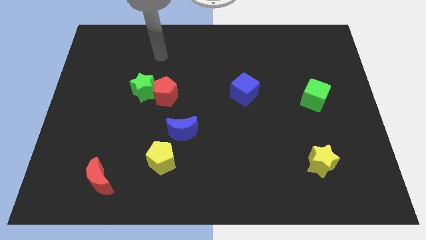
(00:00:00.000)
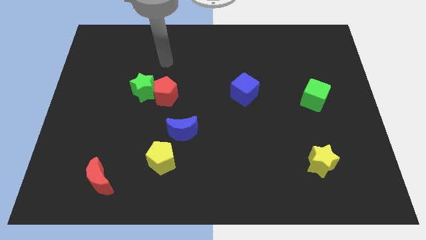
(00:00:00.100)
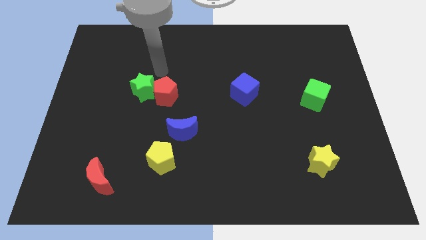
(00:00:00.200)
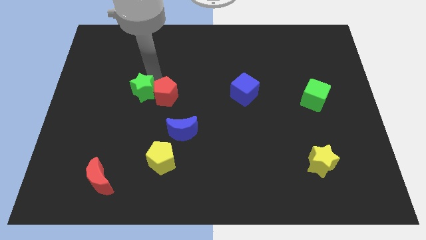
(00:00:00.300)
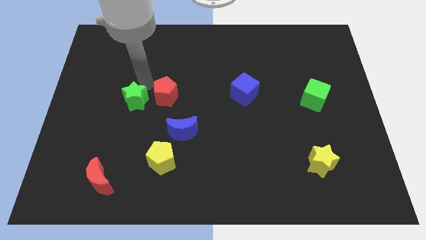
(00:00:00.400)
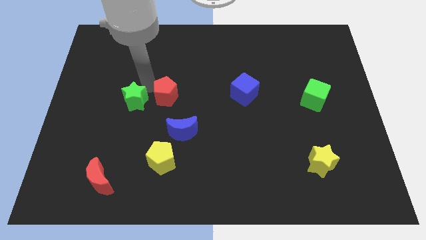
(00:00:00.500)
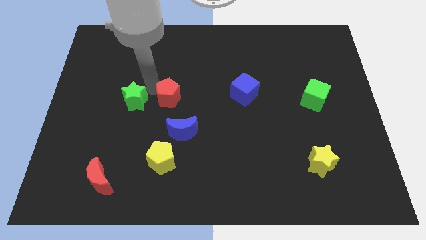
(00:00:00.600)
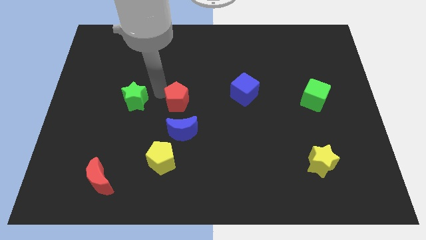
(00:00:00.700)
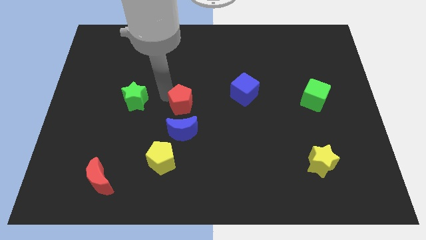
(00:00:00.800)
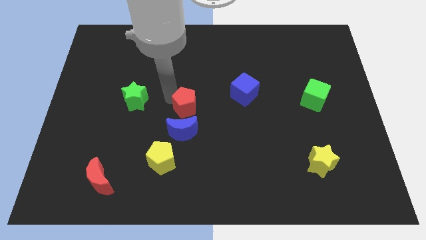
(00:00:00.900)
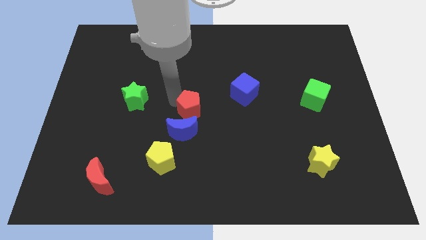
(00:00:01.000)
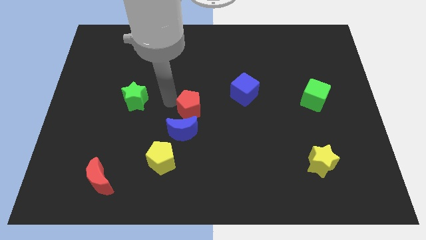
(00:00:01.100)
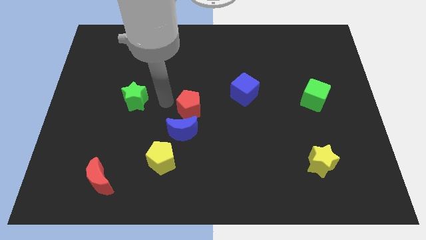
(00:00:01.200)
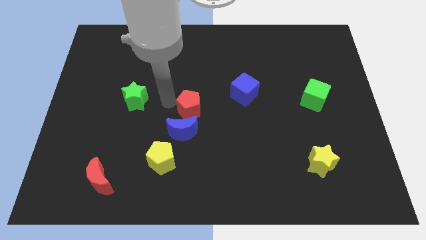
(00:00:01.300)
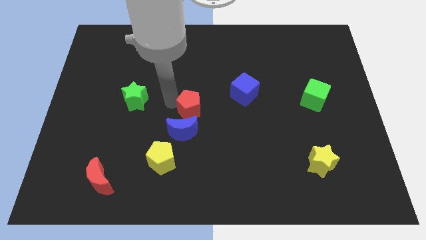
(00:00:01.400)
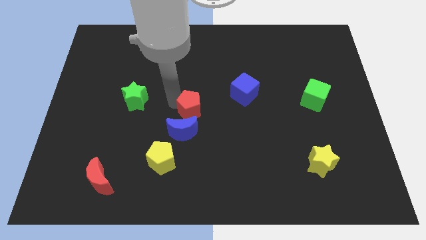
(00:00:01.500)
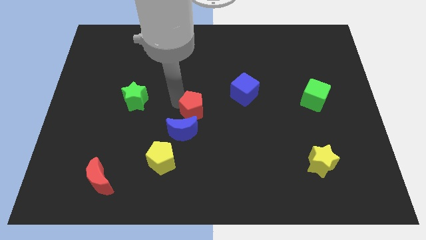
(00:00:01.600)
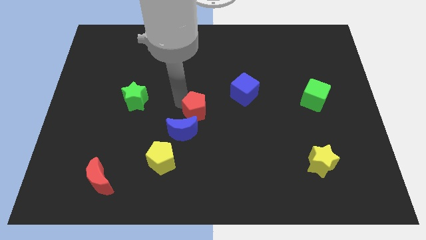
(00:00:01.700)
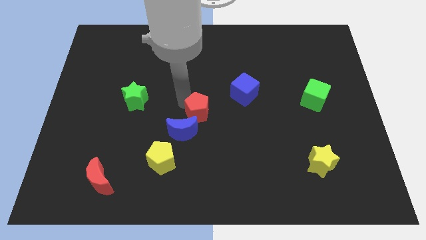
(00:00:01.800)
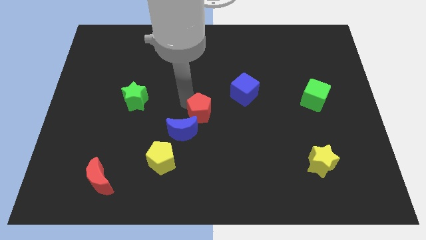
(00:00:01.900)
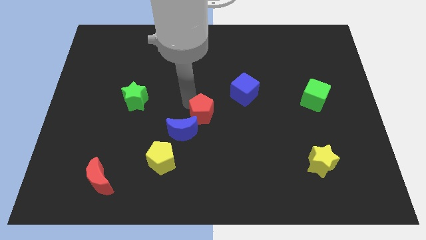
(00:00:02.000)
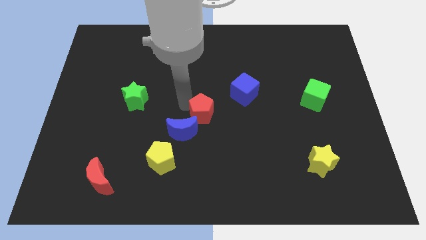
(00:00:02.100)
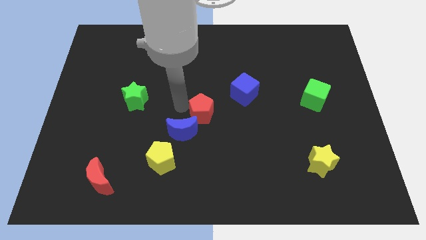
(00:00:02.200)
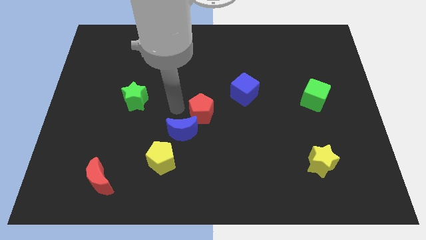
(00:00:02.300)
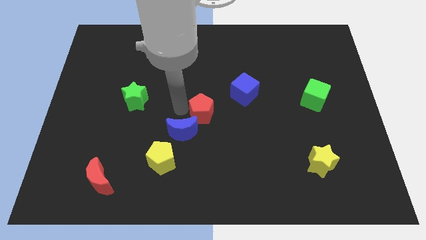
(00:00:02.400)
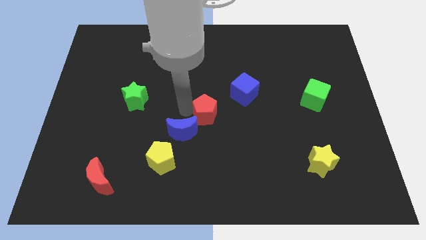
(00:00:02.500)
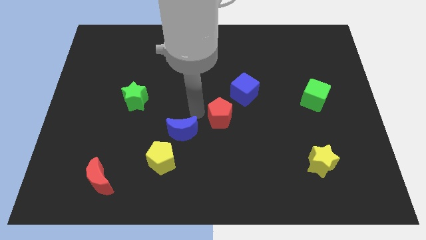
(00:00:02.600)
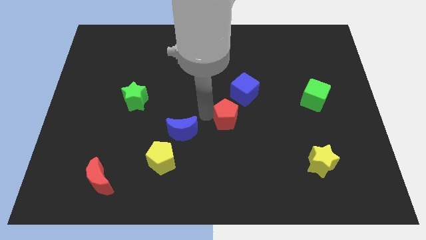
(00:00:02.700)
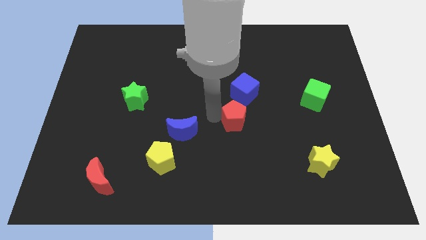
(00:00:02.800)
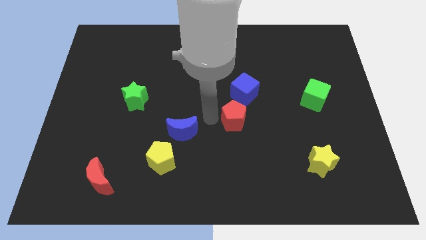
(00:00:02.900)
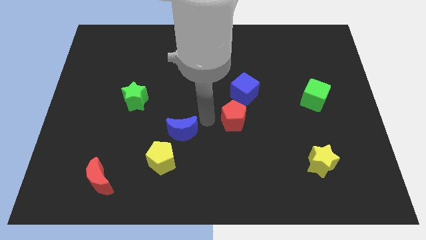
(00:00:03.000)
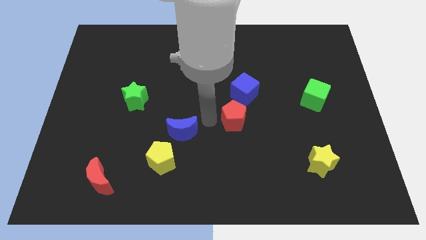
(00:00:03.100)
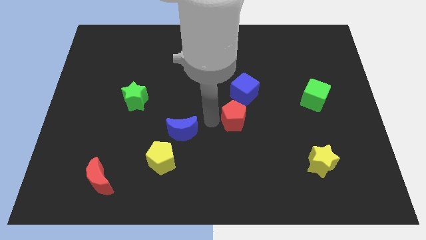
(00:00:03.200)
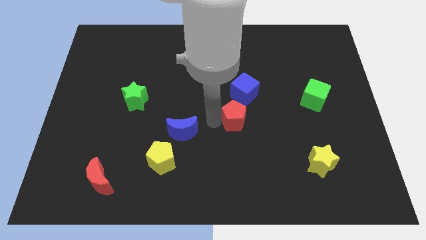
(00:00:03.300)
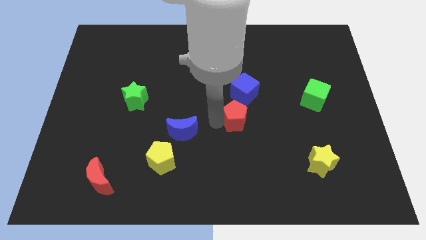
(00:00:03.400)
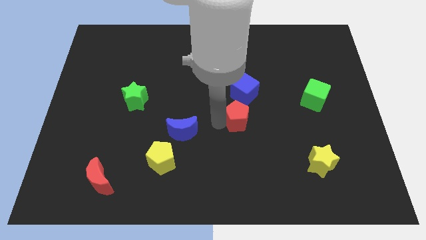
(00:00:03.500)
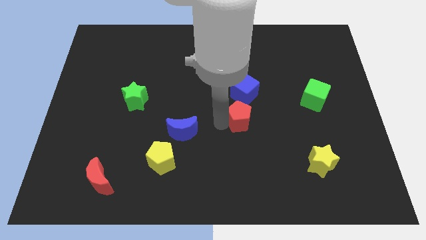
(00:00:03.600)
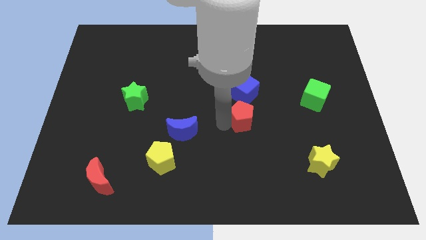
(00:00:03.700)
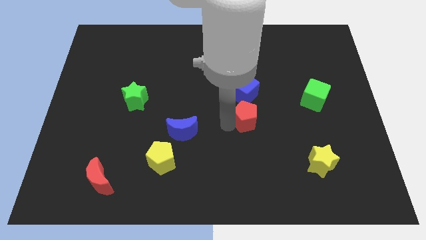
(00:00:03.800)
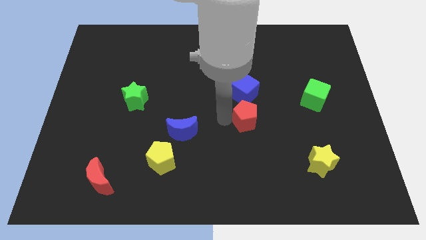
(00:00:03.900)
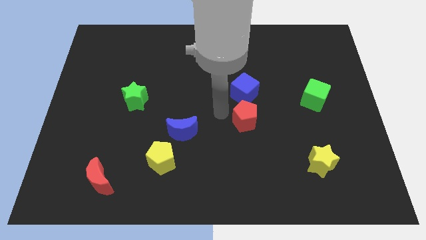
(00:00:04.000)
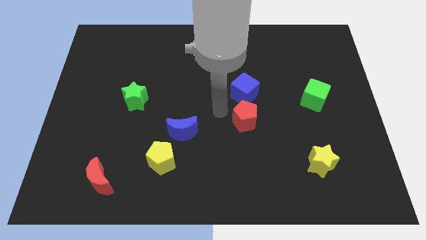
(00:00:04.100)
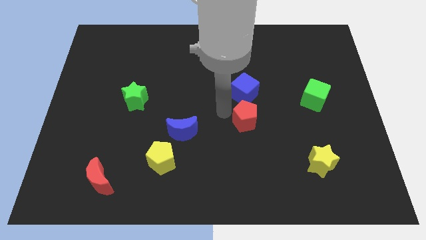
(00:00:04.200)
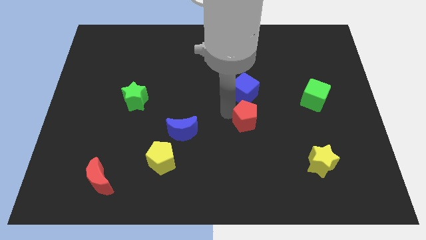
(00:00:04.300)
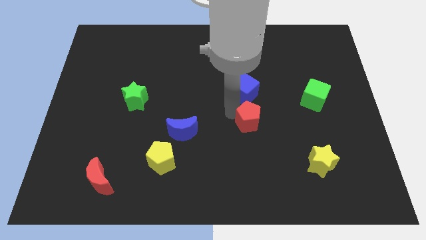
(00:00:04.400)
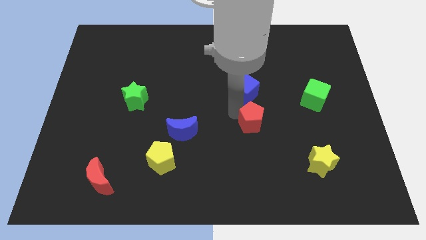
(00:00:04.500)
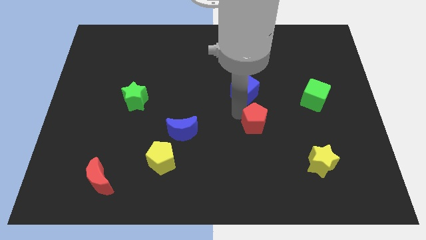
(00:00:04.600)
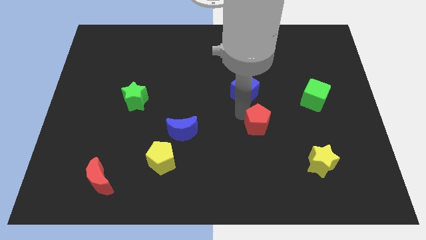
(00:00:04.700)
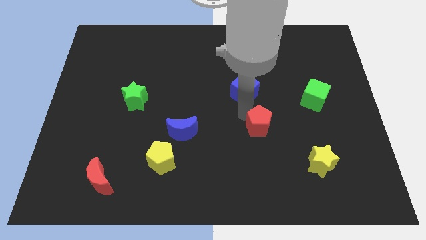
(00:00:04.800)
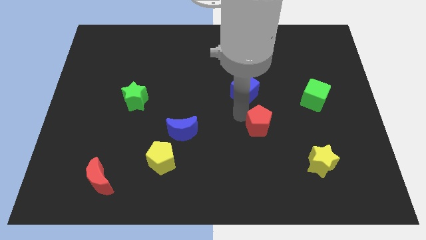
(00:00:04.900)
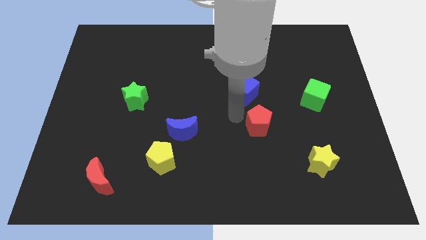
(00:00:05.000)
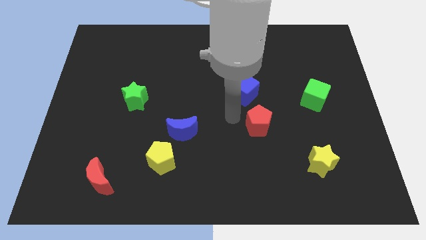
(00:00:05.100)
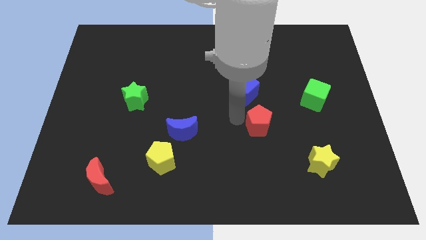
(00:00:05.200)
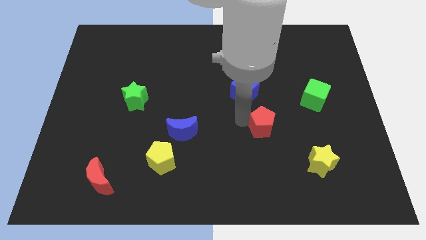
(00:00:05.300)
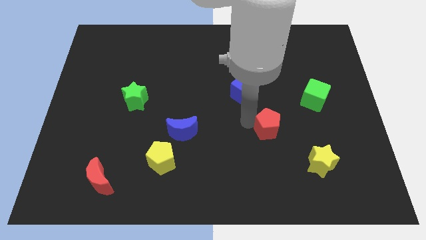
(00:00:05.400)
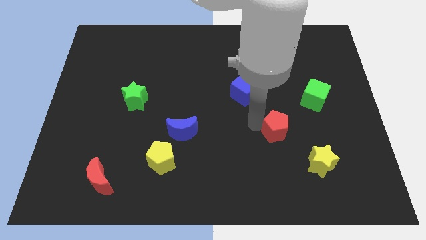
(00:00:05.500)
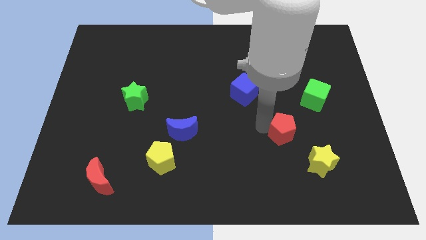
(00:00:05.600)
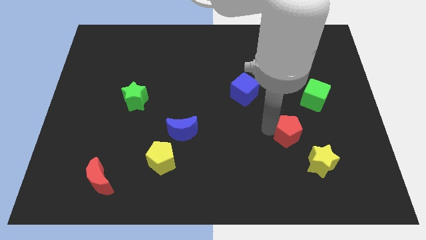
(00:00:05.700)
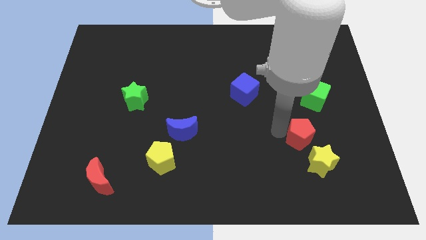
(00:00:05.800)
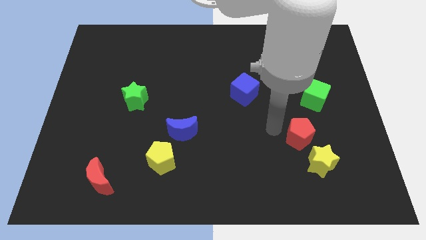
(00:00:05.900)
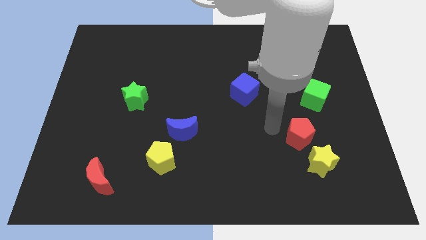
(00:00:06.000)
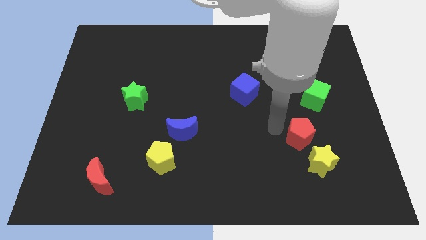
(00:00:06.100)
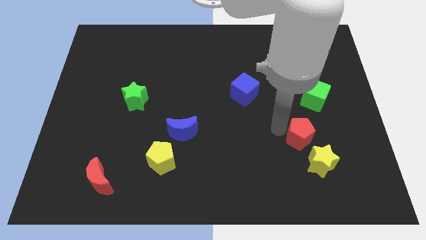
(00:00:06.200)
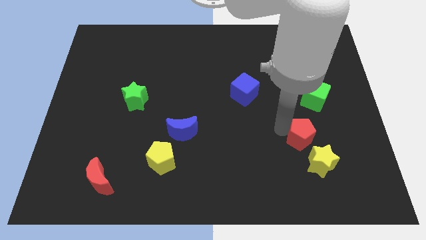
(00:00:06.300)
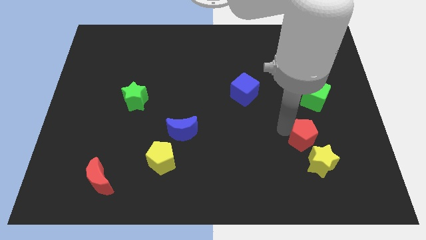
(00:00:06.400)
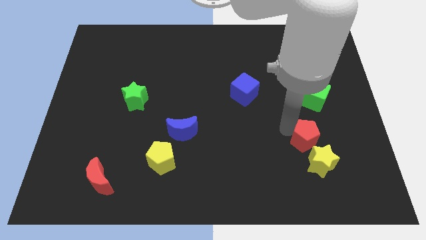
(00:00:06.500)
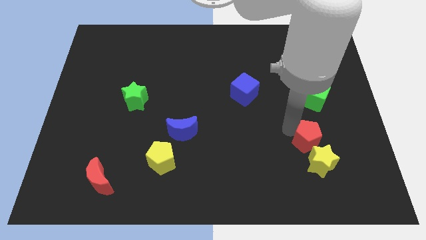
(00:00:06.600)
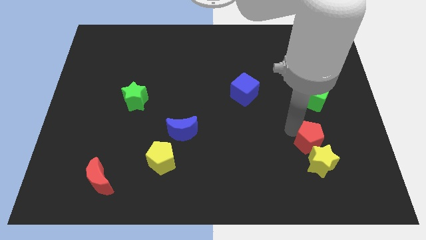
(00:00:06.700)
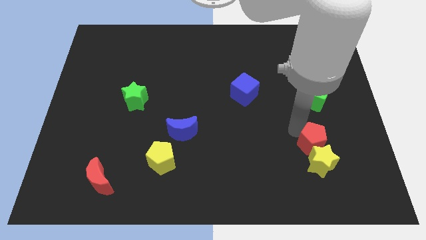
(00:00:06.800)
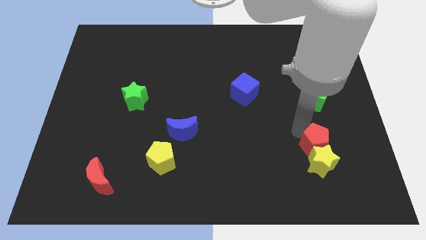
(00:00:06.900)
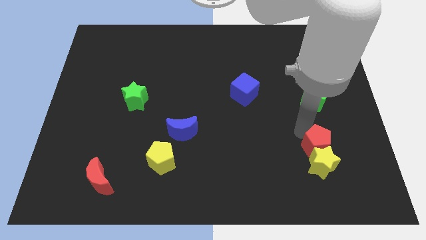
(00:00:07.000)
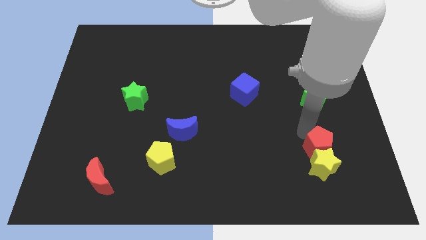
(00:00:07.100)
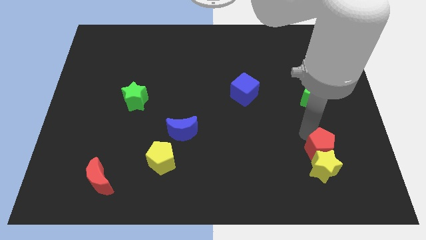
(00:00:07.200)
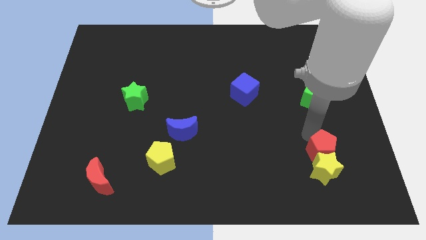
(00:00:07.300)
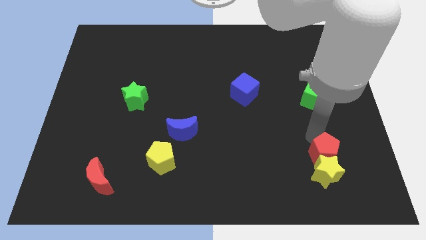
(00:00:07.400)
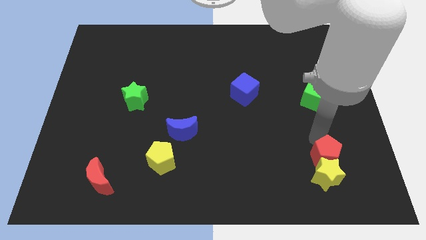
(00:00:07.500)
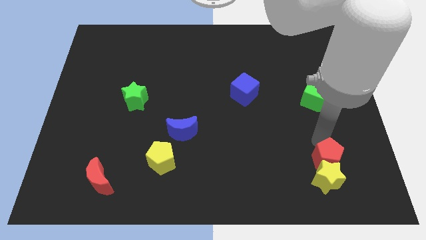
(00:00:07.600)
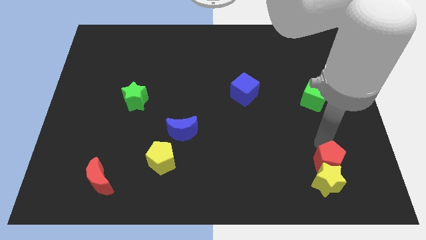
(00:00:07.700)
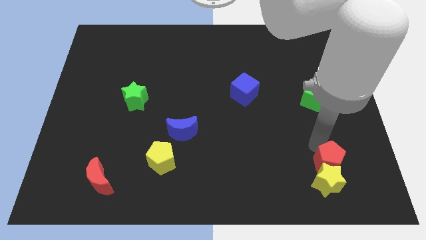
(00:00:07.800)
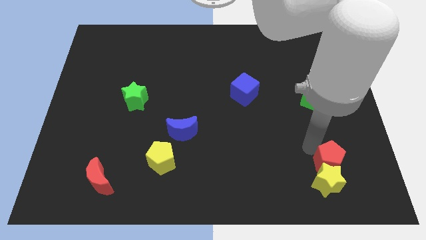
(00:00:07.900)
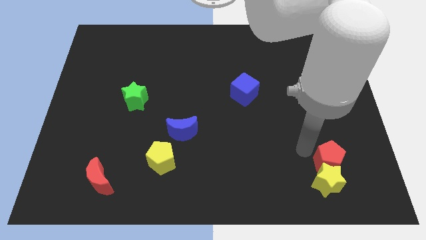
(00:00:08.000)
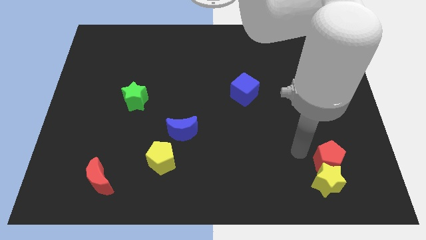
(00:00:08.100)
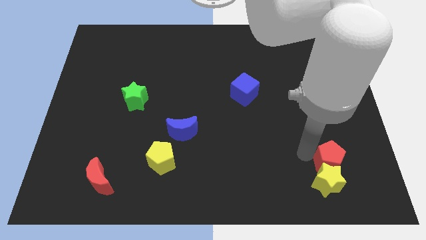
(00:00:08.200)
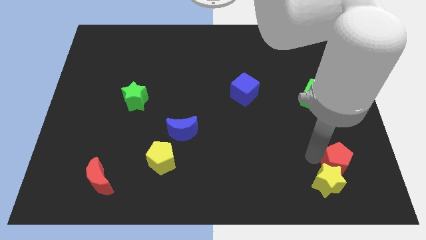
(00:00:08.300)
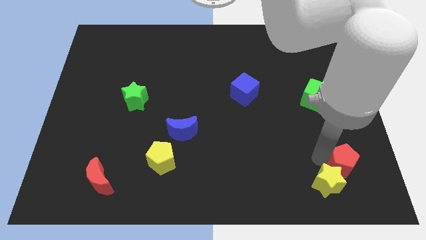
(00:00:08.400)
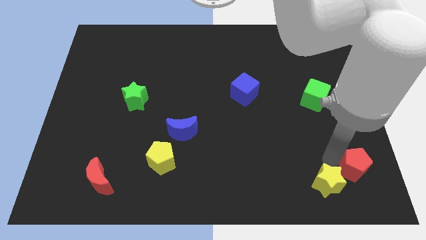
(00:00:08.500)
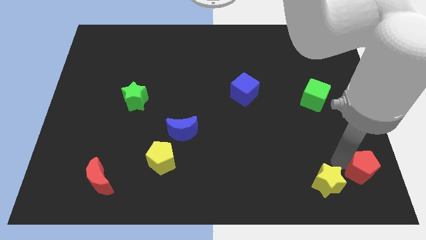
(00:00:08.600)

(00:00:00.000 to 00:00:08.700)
slide the red pentagon to the bottom right of the board
